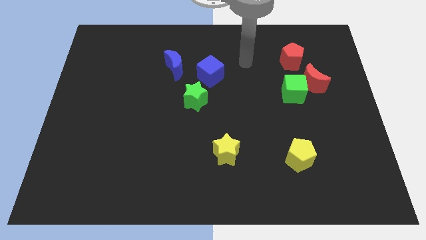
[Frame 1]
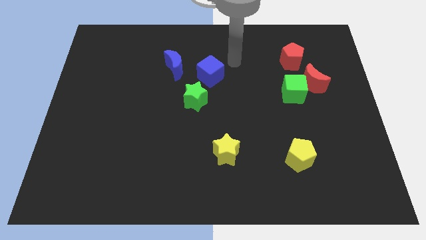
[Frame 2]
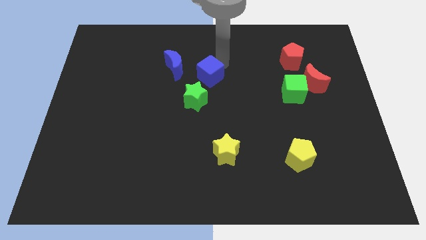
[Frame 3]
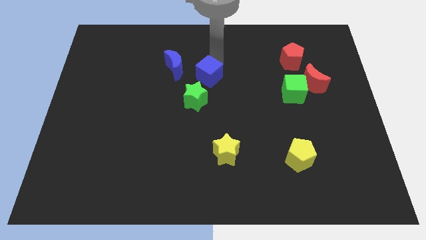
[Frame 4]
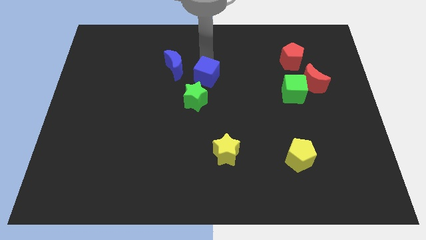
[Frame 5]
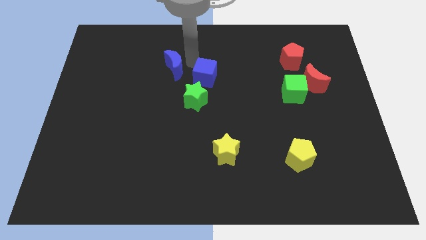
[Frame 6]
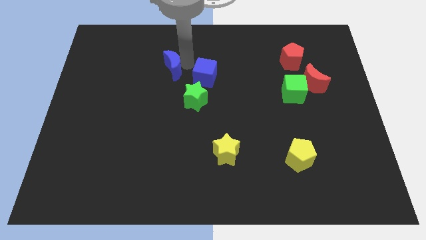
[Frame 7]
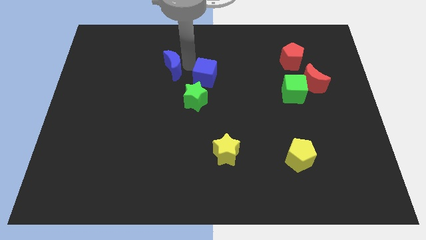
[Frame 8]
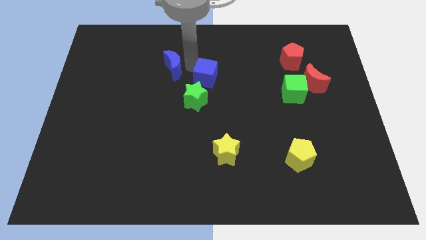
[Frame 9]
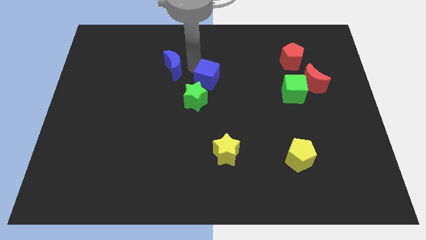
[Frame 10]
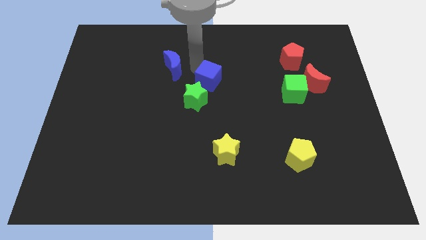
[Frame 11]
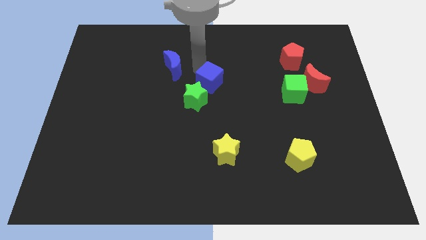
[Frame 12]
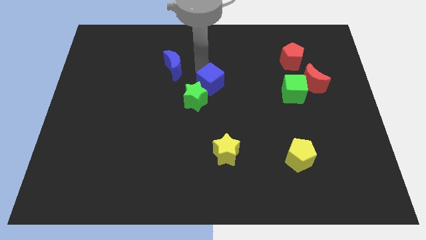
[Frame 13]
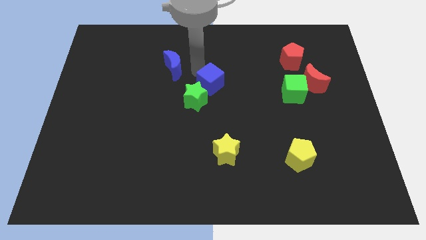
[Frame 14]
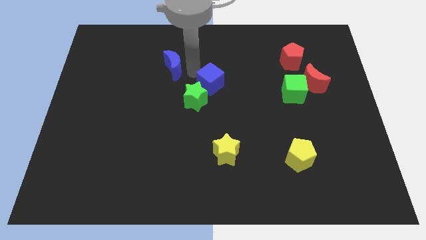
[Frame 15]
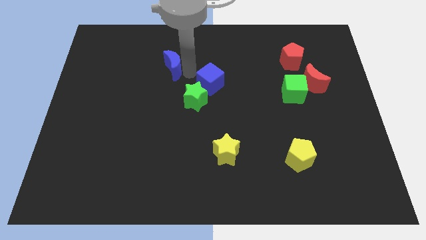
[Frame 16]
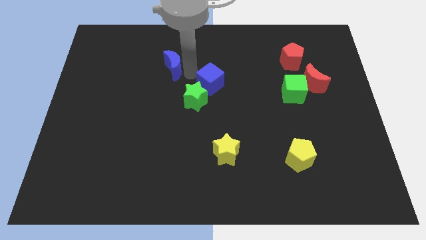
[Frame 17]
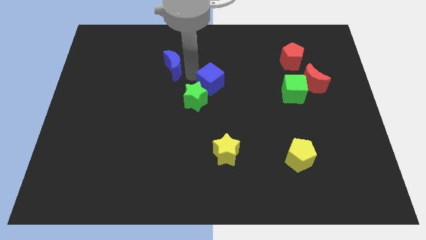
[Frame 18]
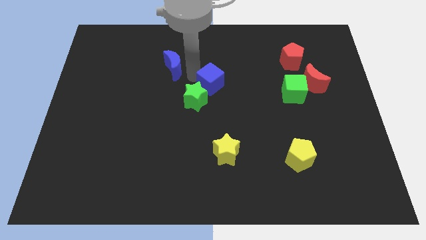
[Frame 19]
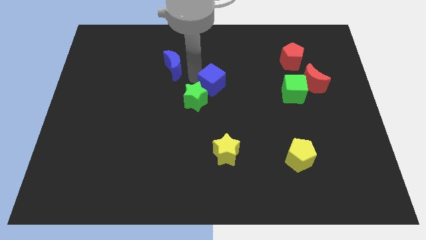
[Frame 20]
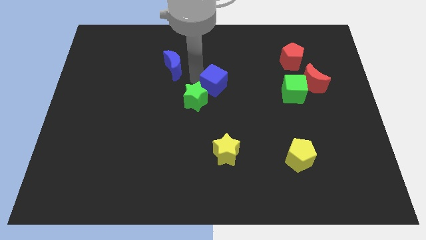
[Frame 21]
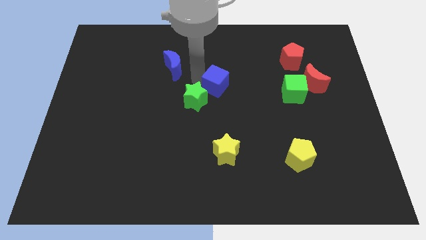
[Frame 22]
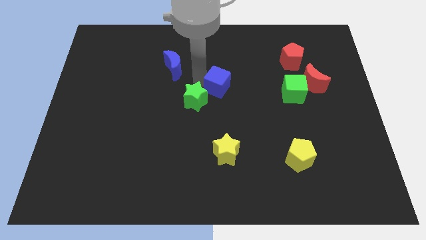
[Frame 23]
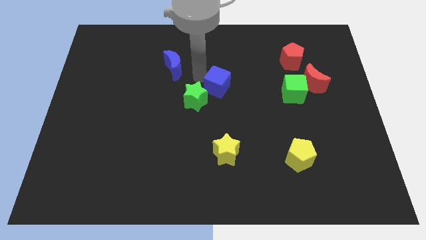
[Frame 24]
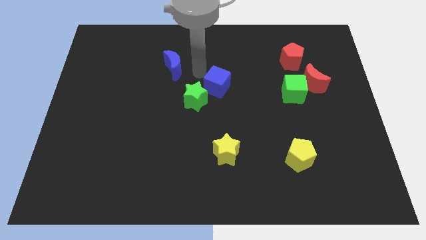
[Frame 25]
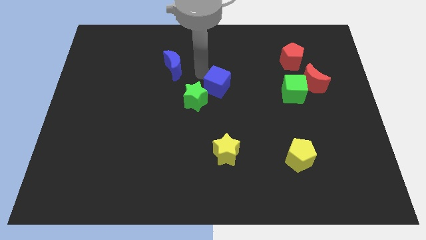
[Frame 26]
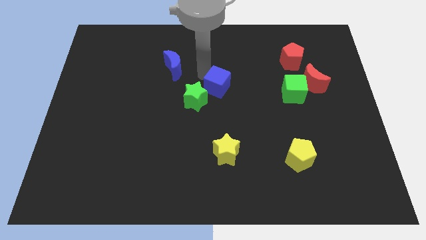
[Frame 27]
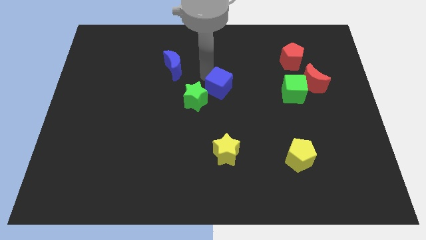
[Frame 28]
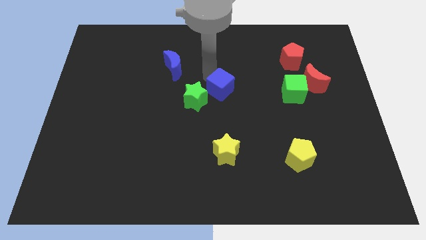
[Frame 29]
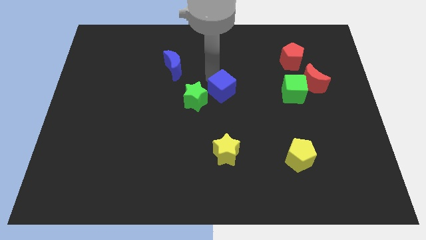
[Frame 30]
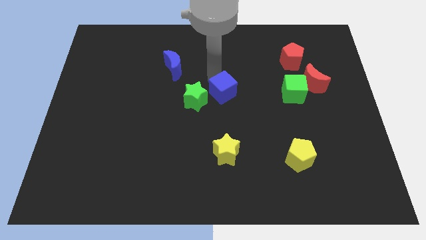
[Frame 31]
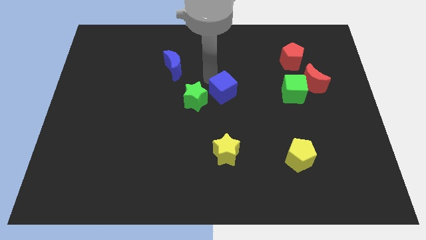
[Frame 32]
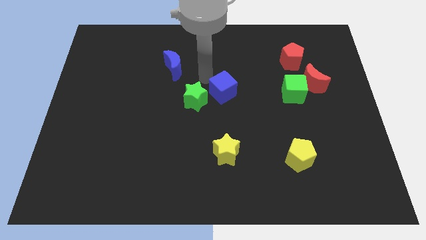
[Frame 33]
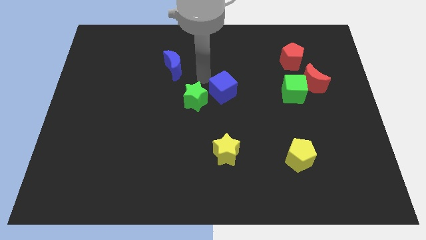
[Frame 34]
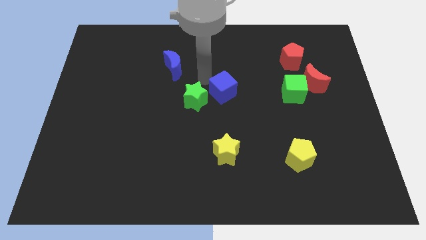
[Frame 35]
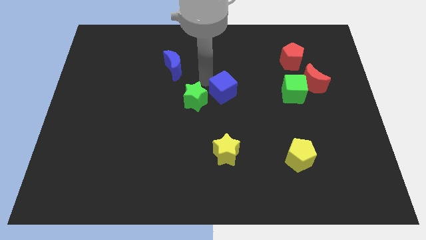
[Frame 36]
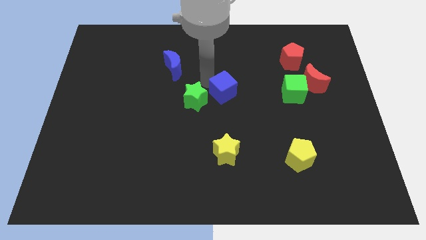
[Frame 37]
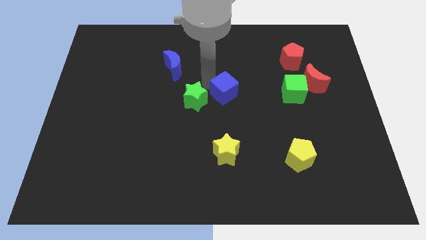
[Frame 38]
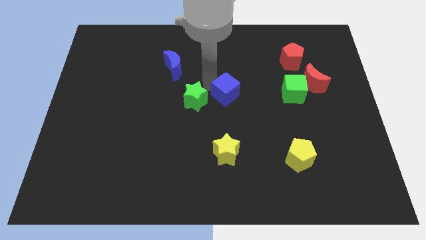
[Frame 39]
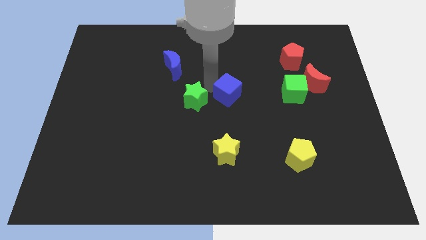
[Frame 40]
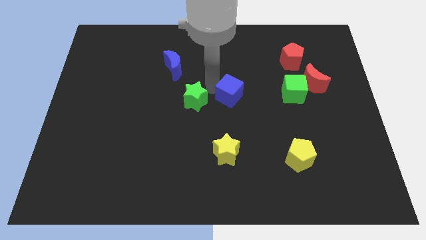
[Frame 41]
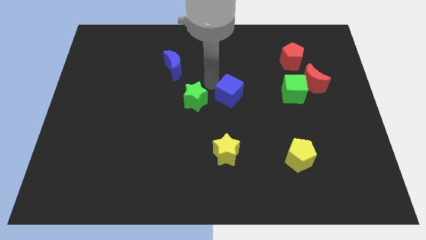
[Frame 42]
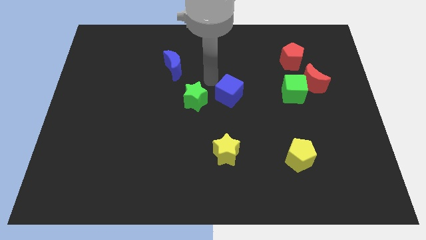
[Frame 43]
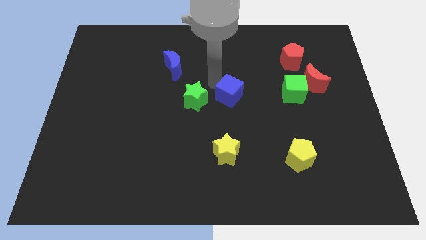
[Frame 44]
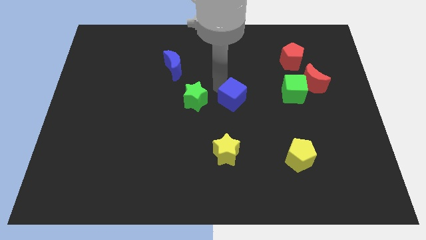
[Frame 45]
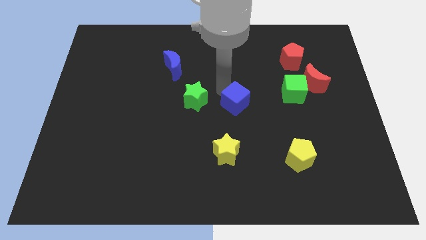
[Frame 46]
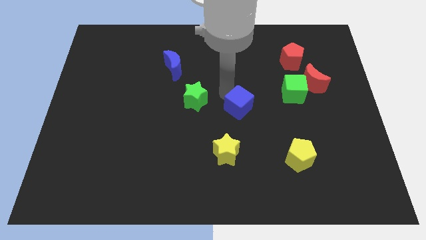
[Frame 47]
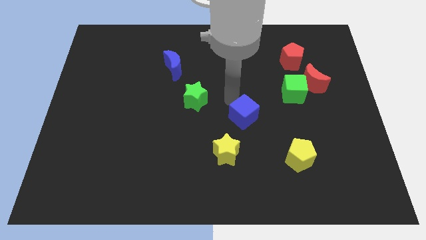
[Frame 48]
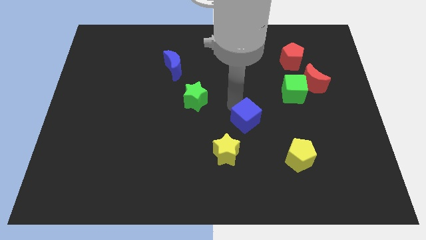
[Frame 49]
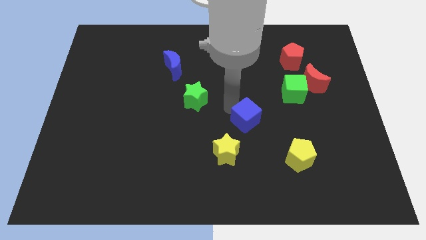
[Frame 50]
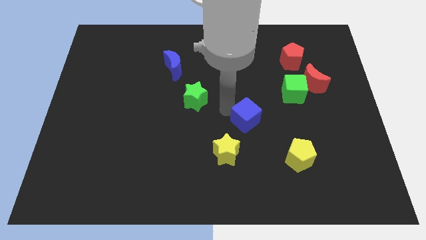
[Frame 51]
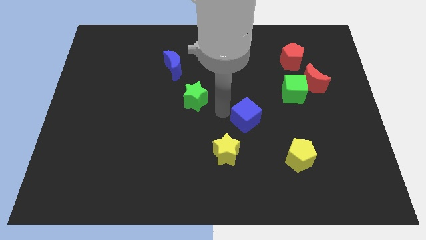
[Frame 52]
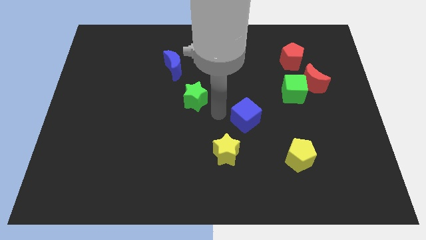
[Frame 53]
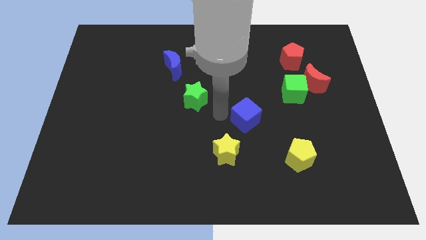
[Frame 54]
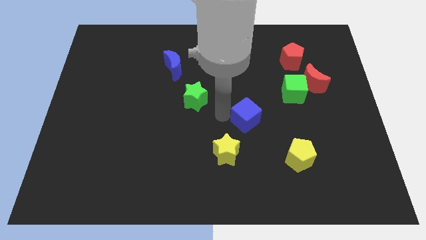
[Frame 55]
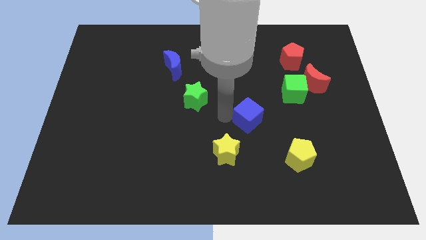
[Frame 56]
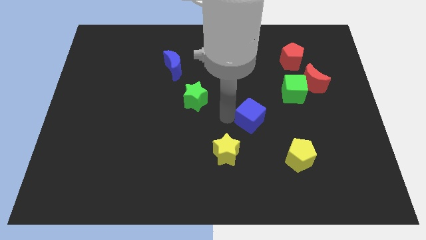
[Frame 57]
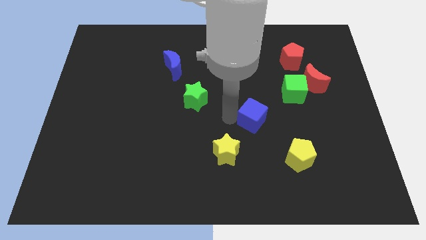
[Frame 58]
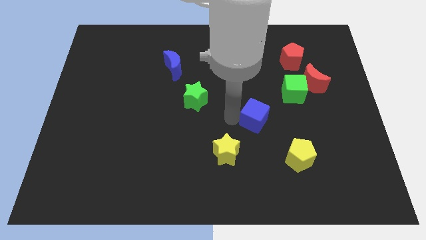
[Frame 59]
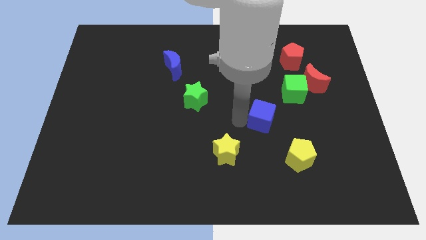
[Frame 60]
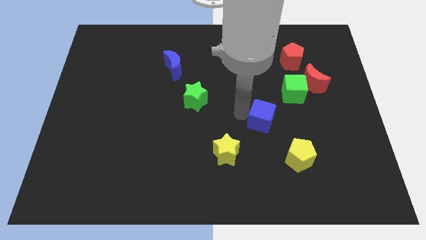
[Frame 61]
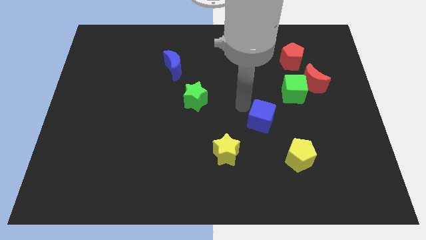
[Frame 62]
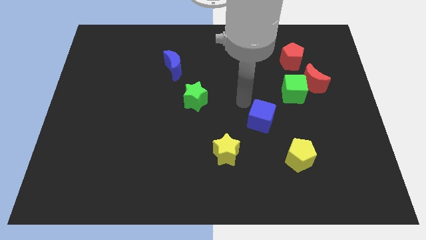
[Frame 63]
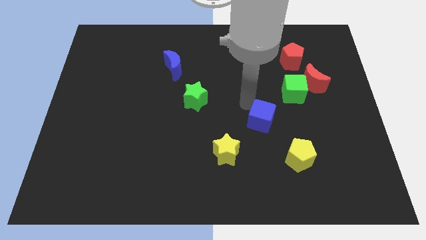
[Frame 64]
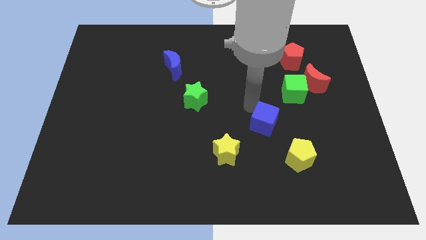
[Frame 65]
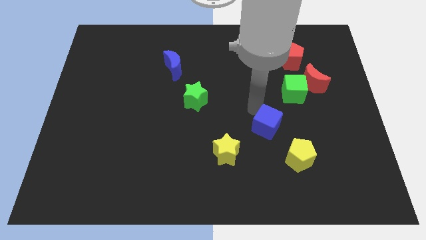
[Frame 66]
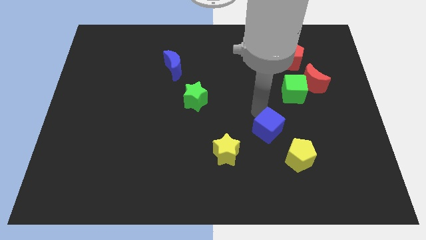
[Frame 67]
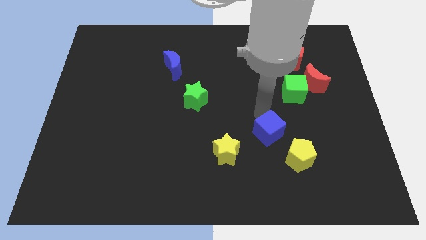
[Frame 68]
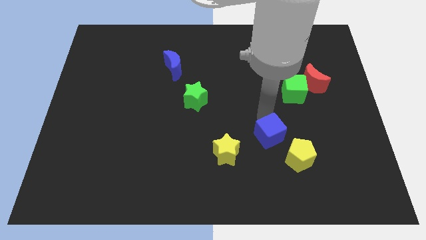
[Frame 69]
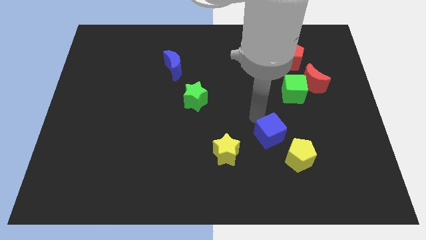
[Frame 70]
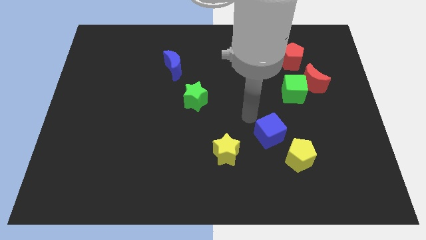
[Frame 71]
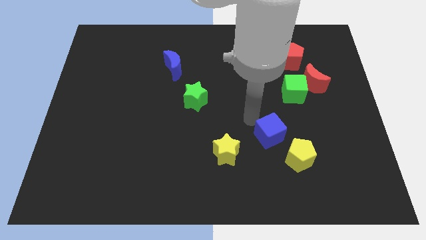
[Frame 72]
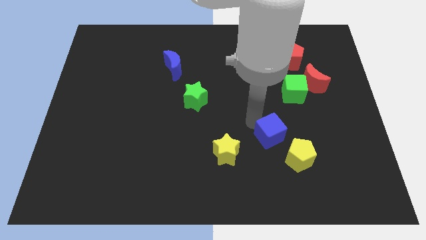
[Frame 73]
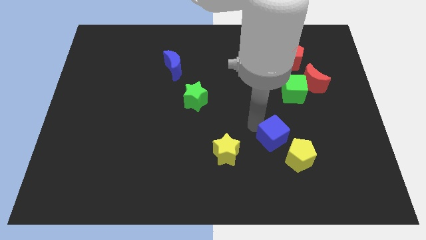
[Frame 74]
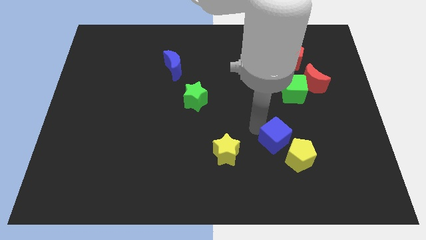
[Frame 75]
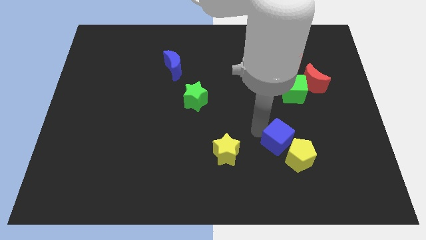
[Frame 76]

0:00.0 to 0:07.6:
move the blue cube to the yellow pentagon
